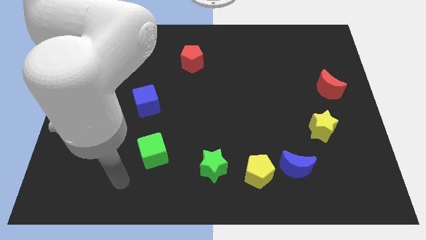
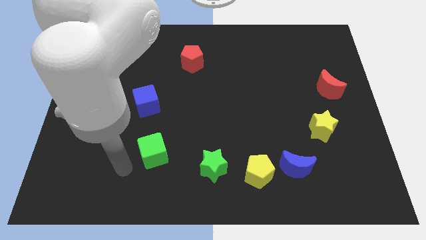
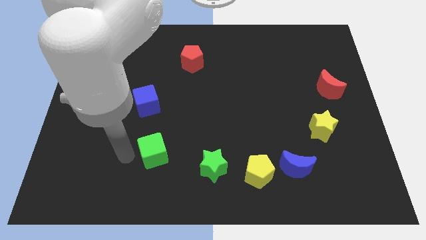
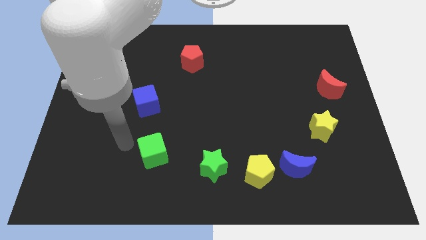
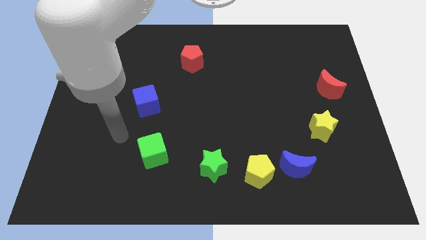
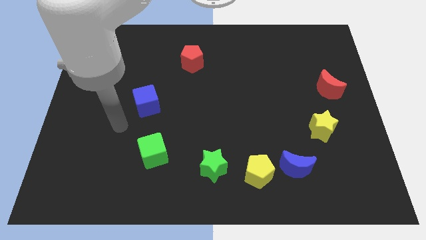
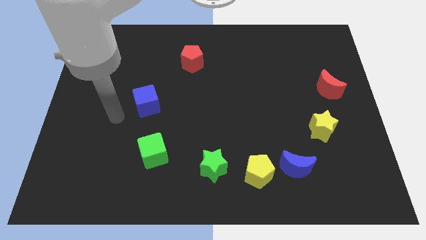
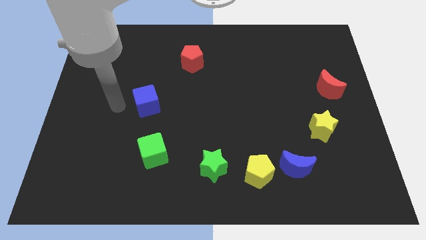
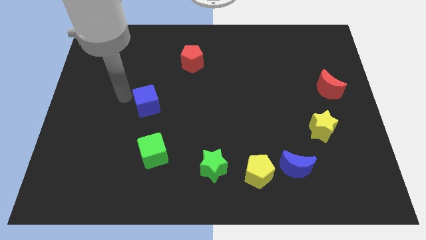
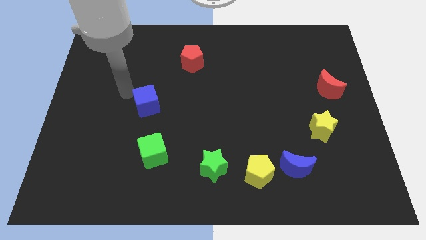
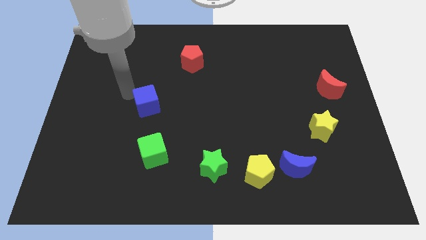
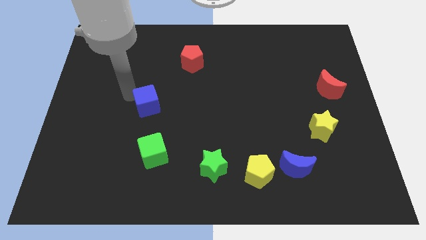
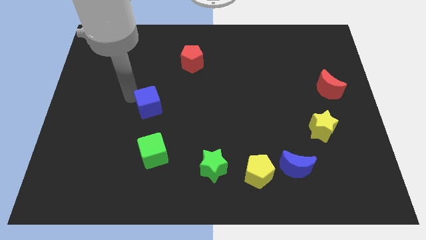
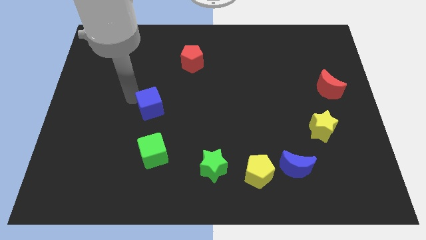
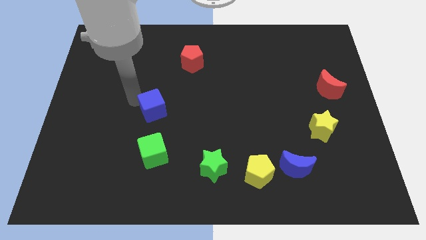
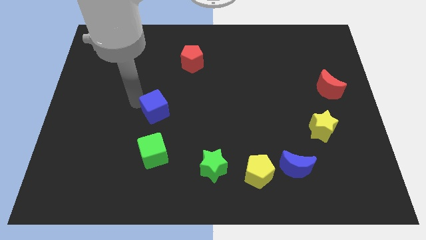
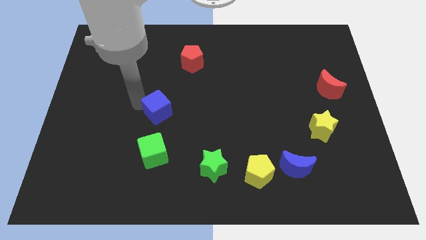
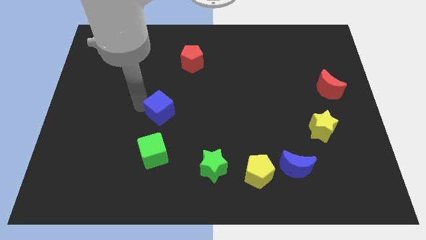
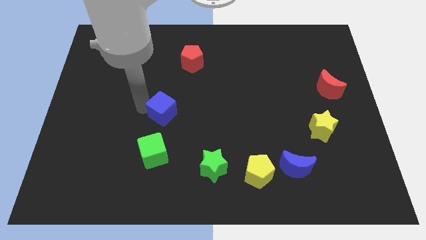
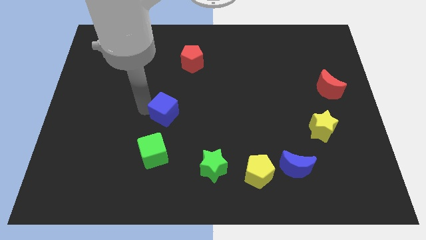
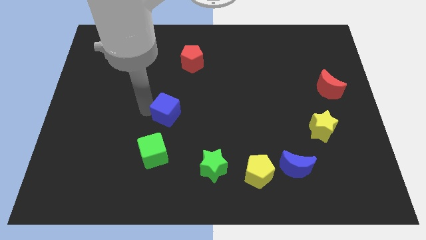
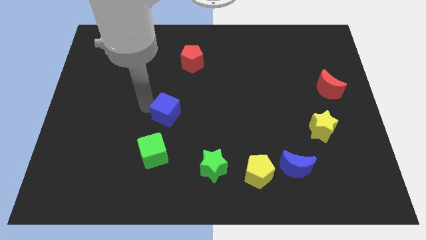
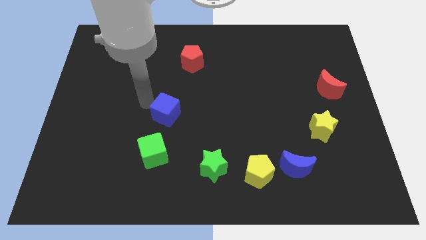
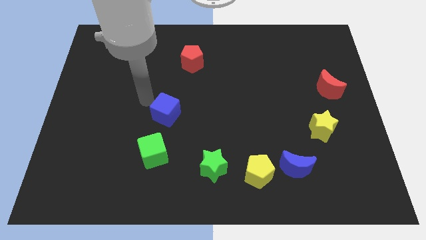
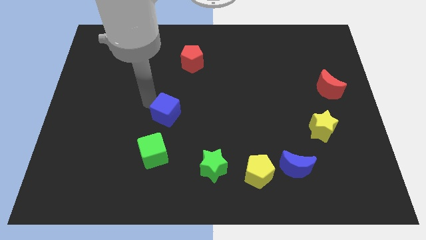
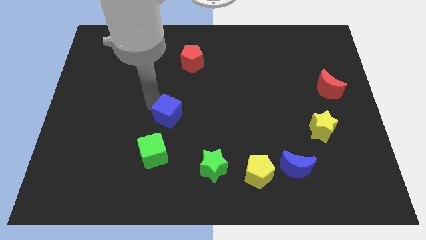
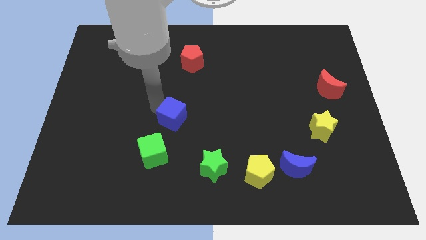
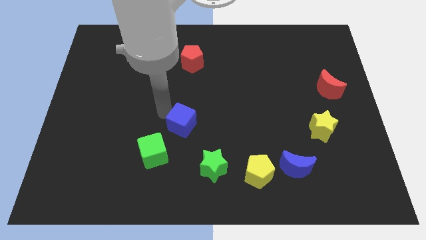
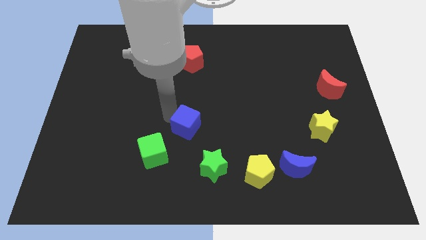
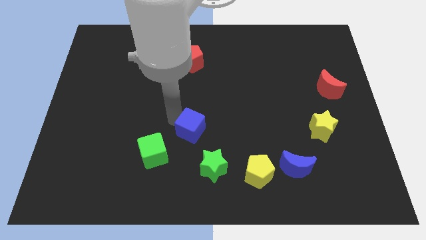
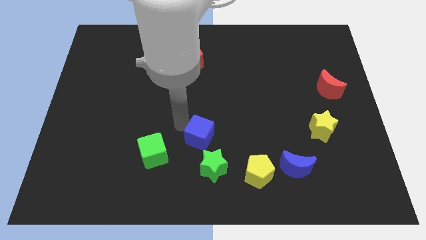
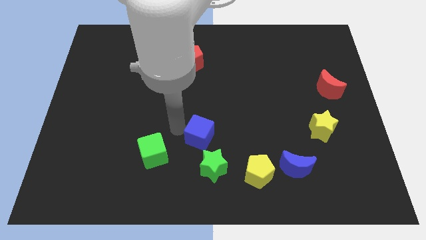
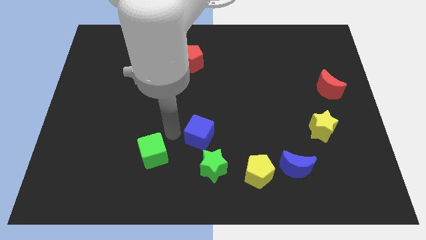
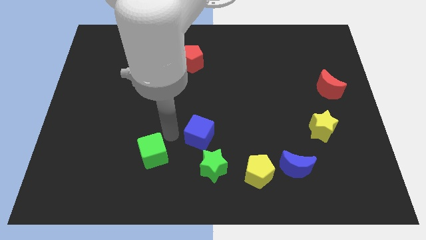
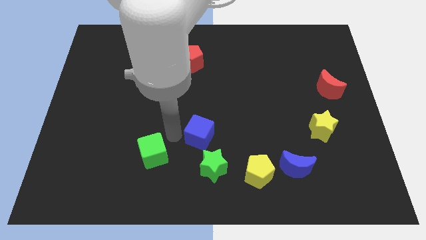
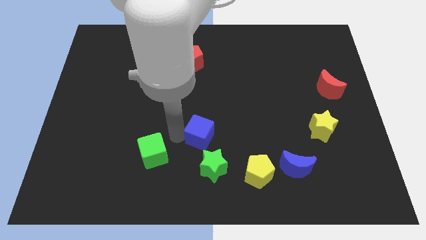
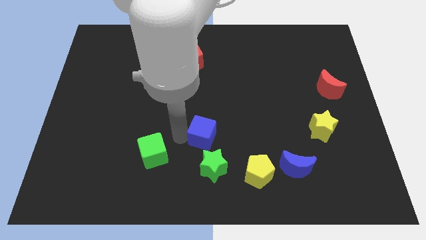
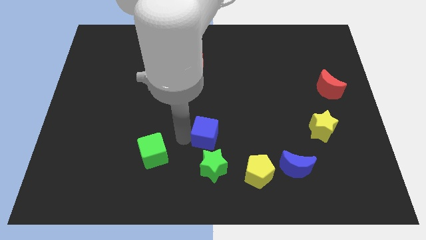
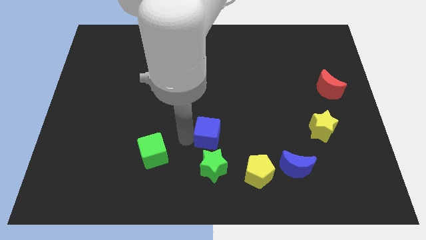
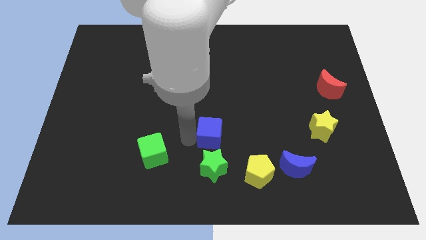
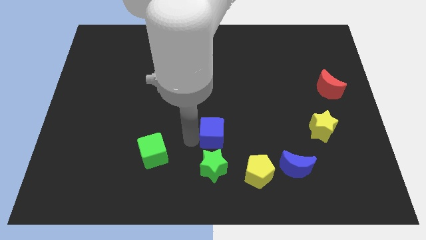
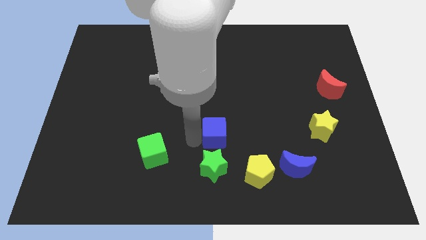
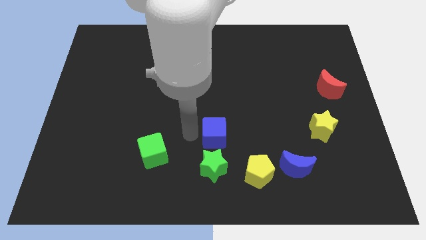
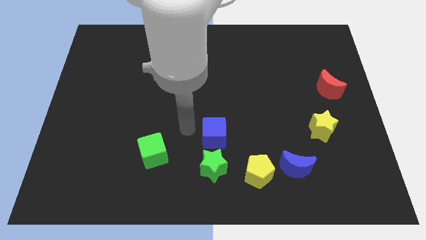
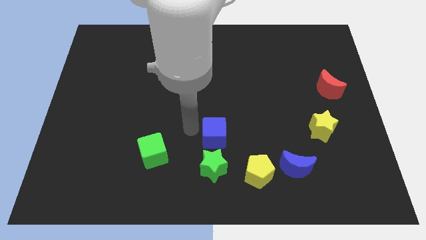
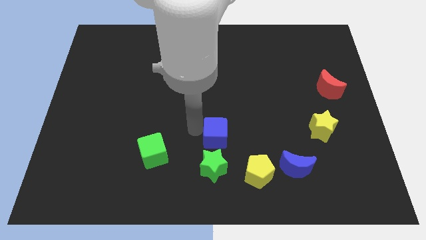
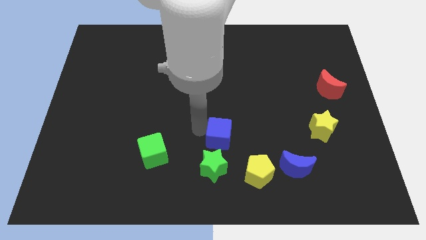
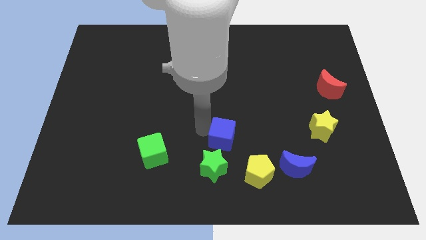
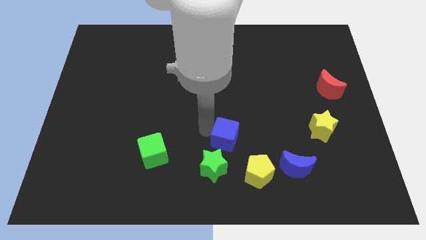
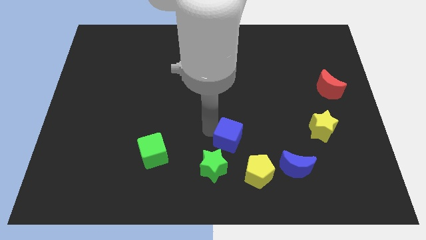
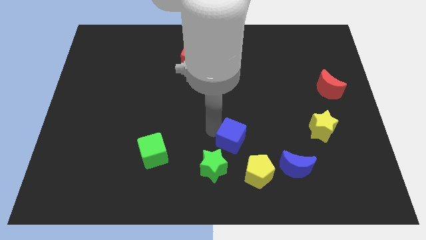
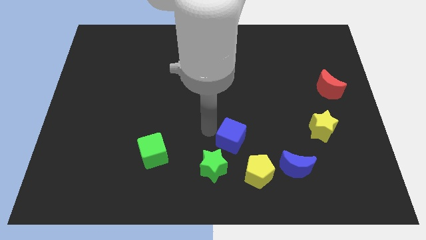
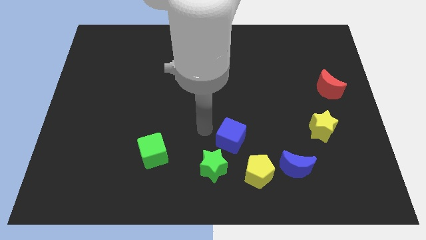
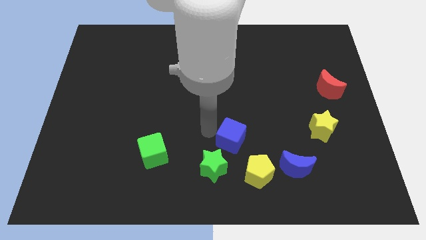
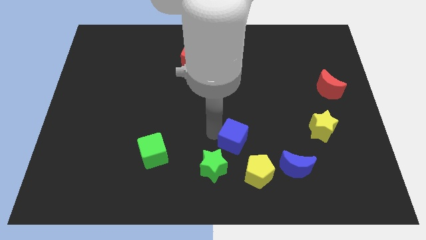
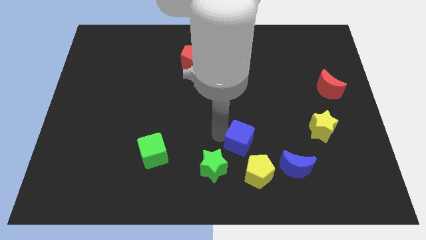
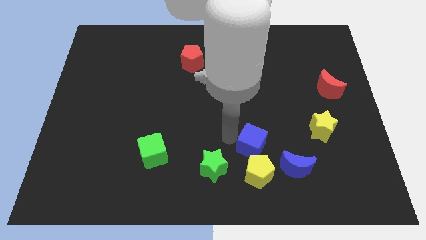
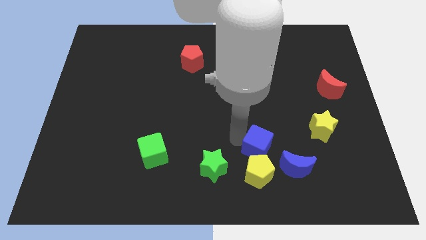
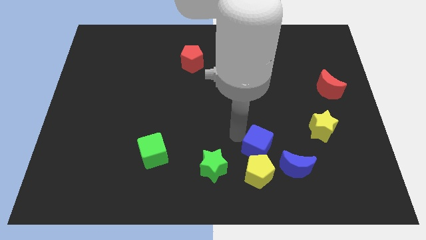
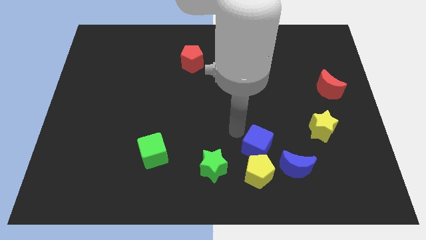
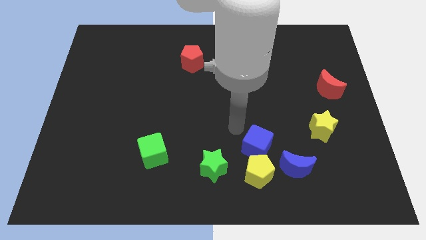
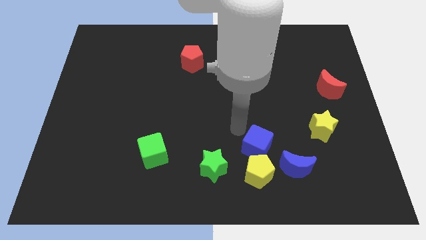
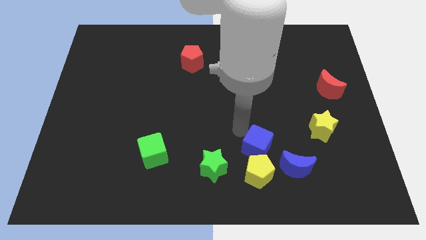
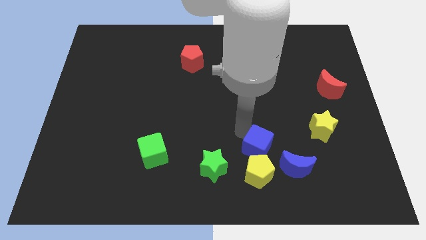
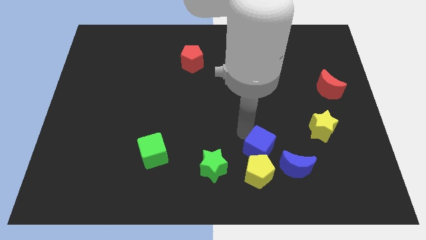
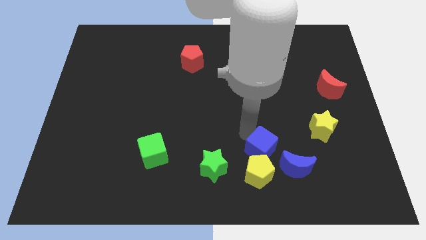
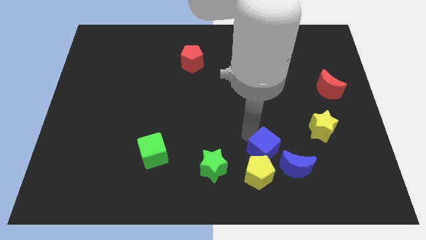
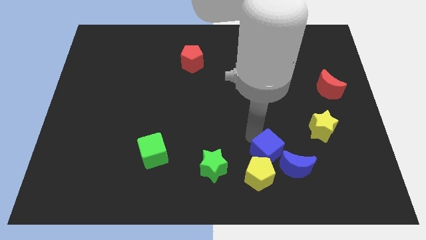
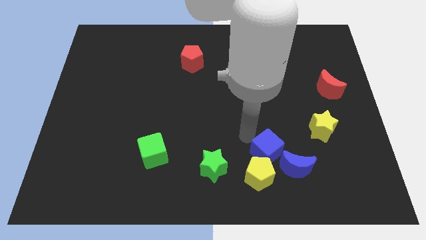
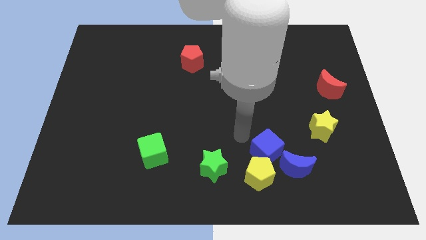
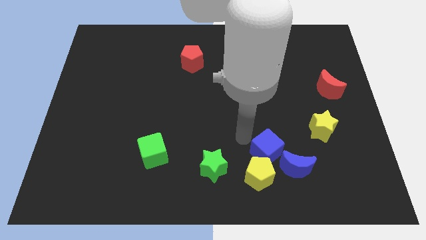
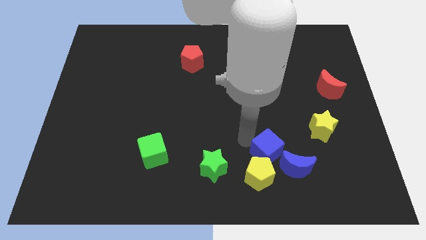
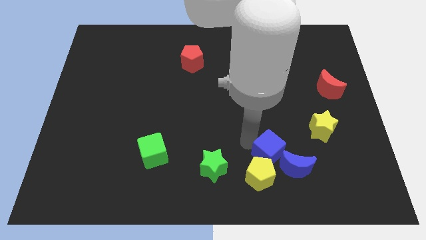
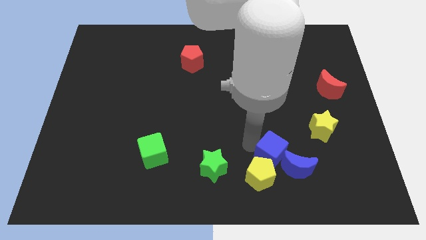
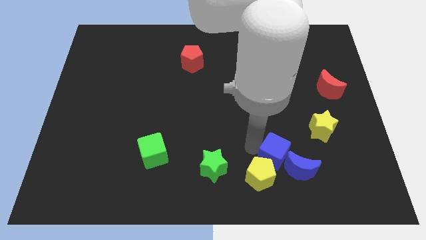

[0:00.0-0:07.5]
put the blue cube towards the blue moon
